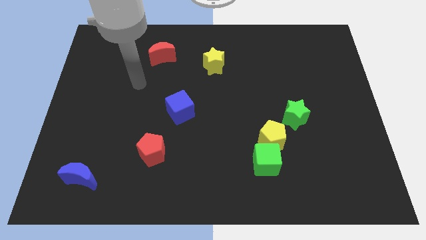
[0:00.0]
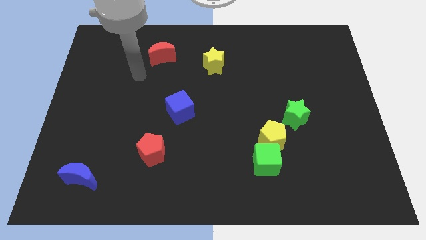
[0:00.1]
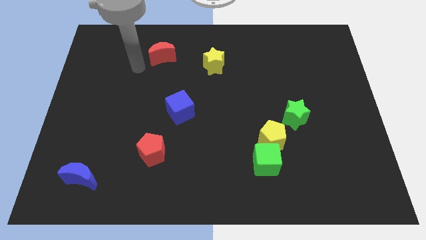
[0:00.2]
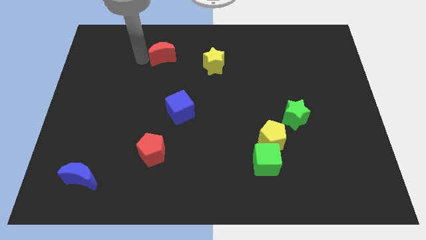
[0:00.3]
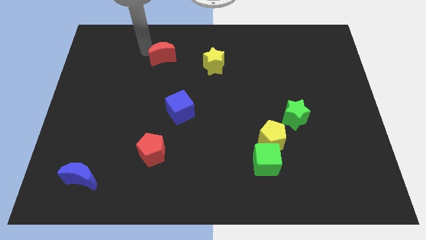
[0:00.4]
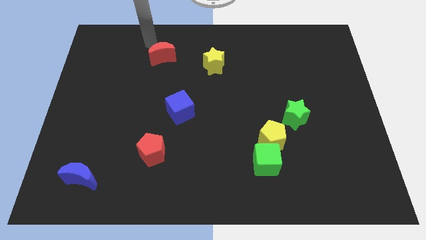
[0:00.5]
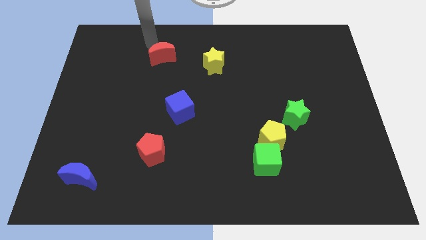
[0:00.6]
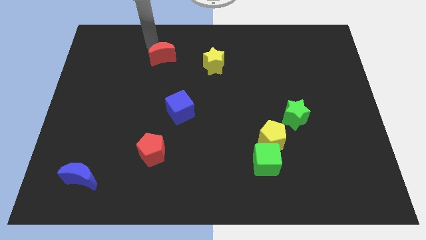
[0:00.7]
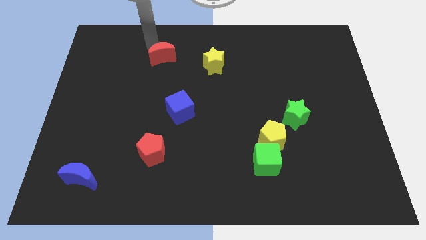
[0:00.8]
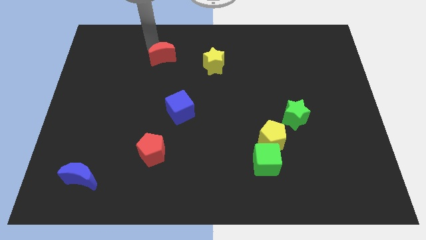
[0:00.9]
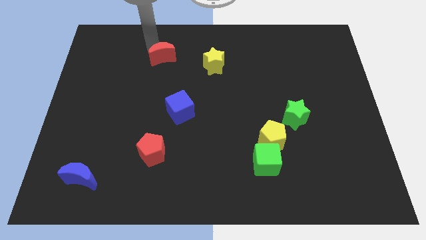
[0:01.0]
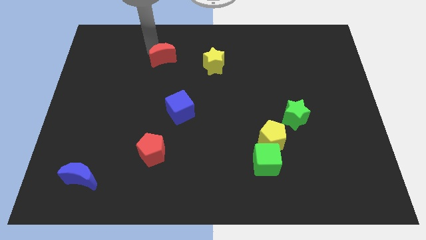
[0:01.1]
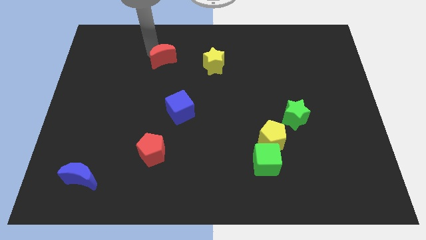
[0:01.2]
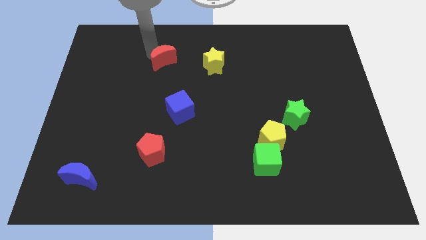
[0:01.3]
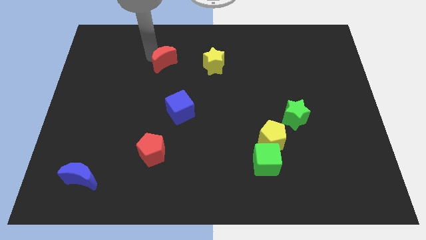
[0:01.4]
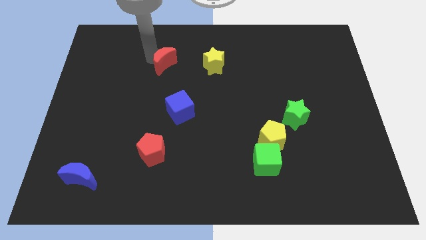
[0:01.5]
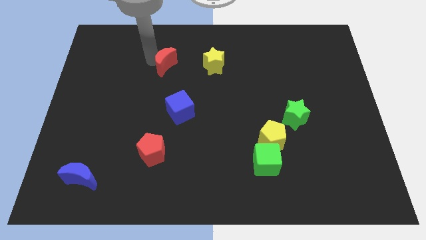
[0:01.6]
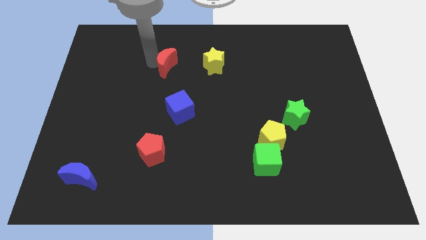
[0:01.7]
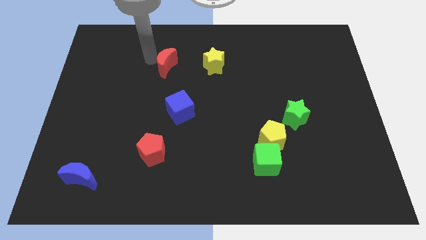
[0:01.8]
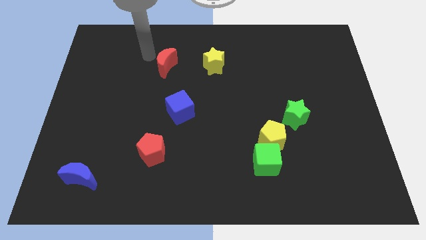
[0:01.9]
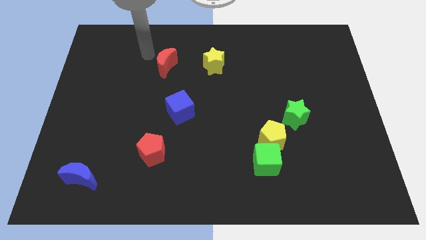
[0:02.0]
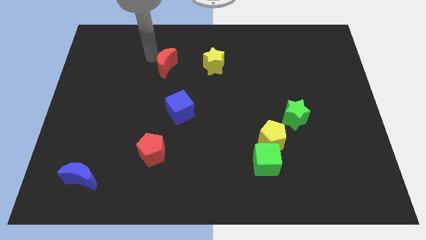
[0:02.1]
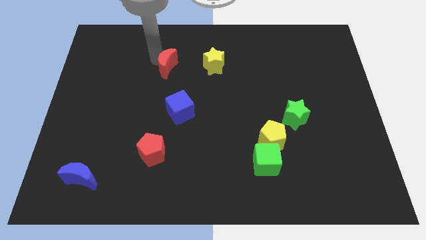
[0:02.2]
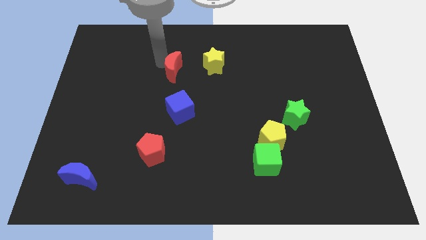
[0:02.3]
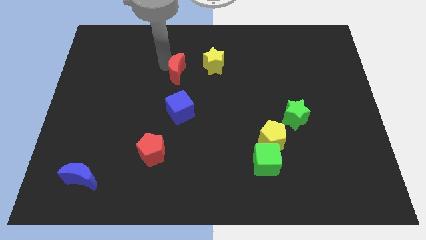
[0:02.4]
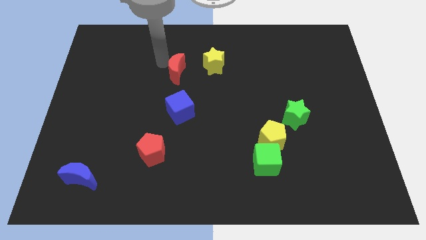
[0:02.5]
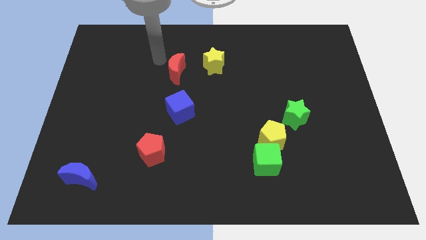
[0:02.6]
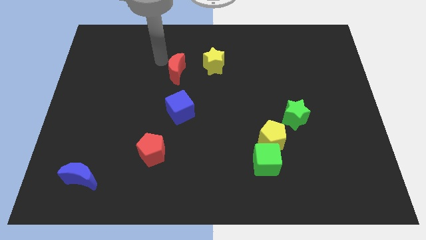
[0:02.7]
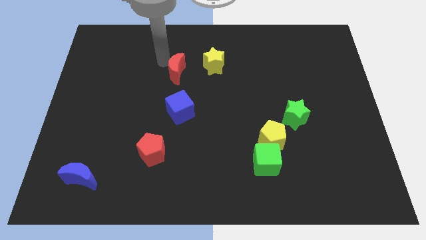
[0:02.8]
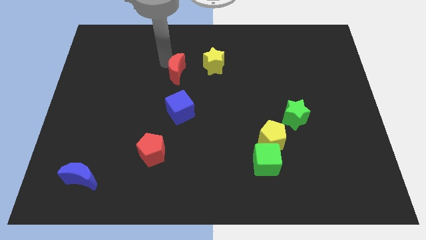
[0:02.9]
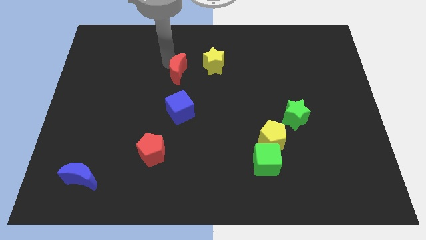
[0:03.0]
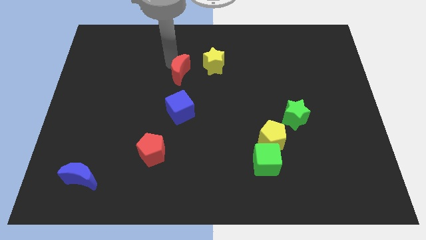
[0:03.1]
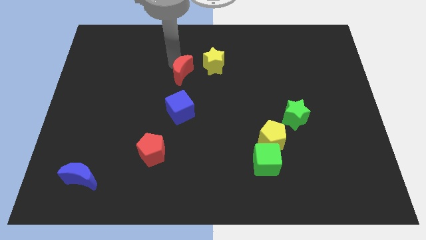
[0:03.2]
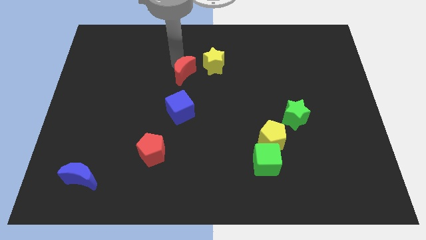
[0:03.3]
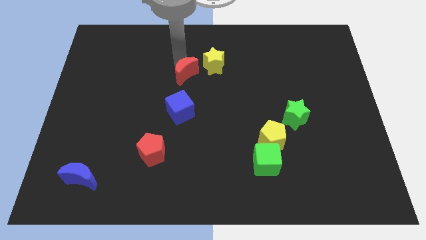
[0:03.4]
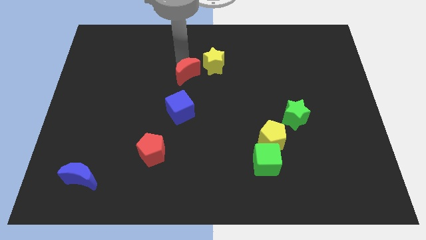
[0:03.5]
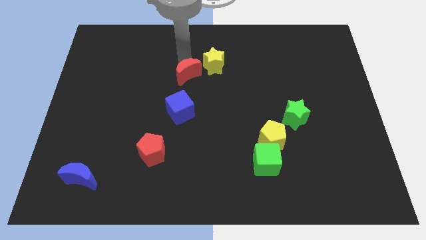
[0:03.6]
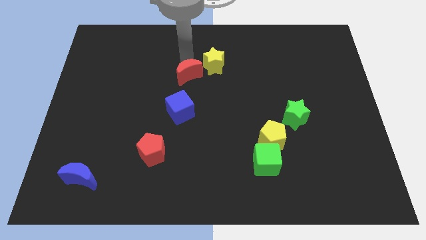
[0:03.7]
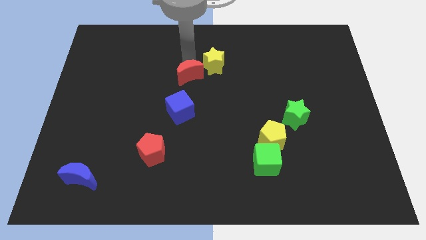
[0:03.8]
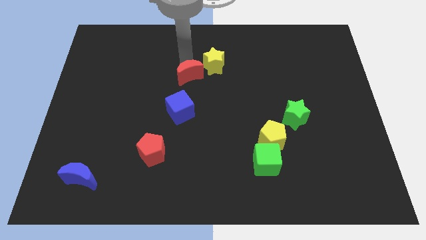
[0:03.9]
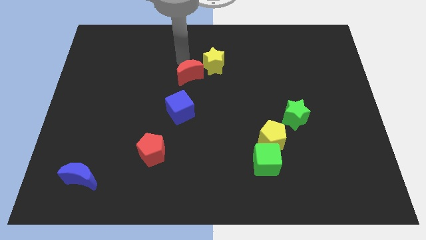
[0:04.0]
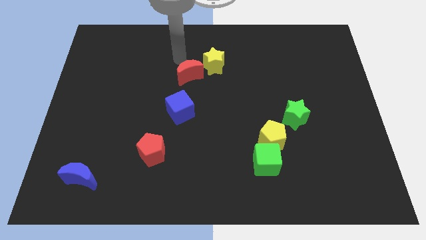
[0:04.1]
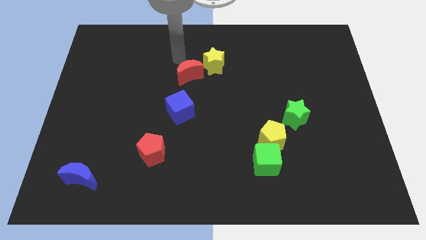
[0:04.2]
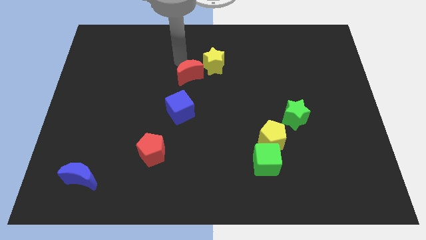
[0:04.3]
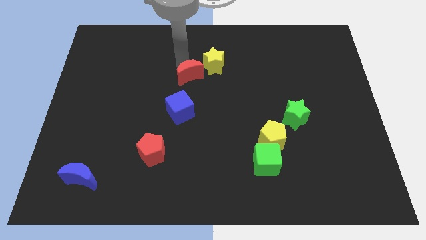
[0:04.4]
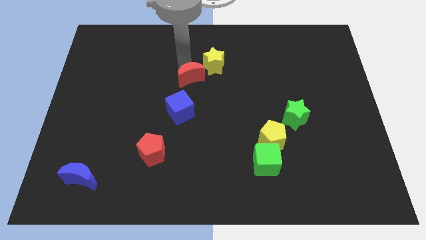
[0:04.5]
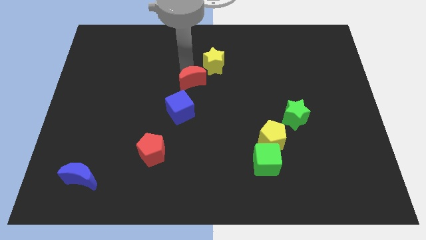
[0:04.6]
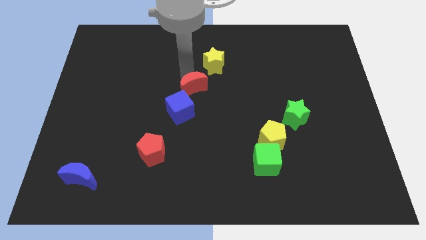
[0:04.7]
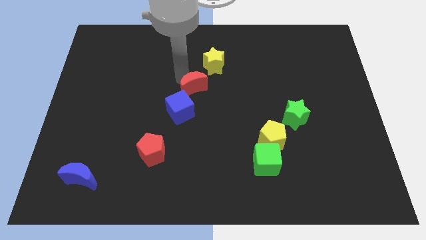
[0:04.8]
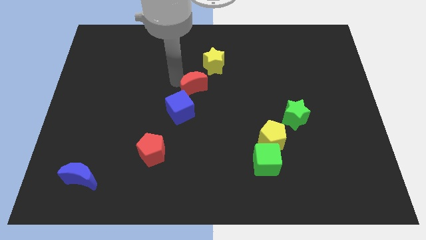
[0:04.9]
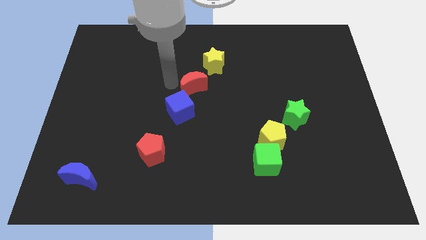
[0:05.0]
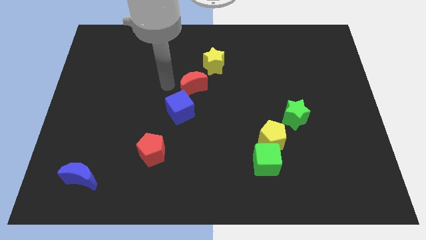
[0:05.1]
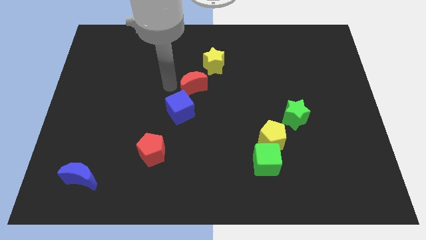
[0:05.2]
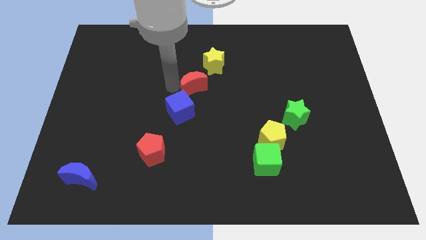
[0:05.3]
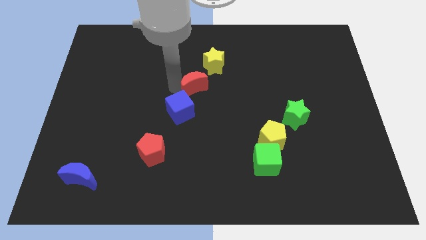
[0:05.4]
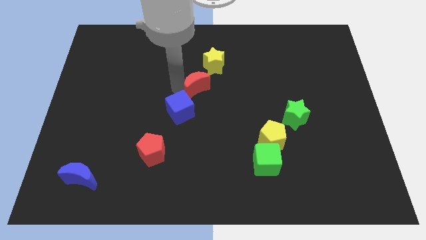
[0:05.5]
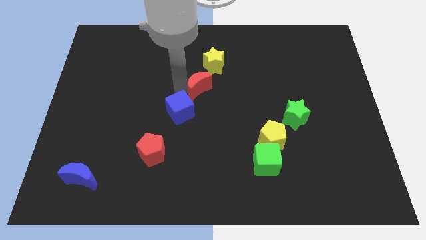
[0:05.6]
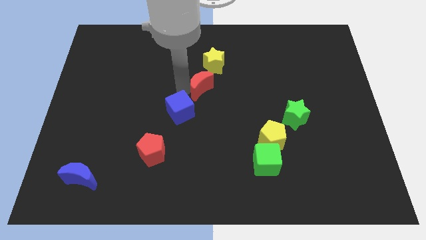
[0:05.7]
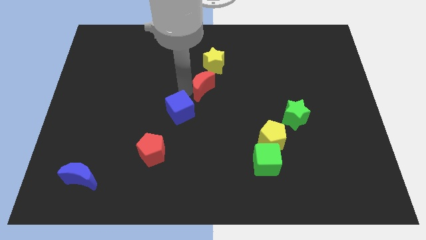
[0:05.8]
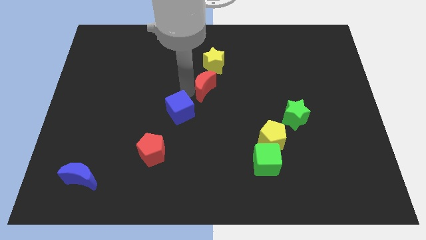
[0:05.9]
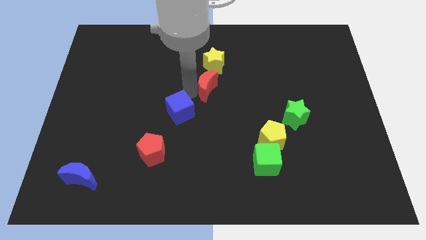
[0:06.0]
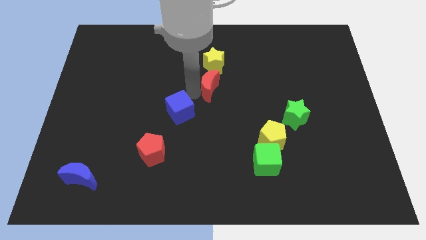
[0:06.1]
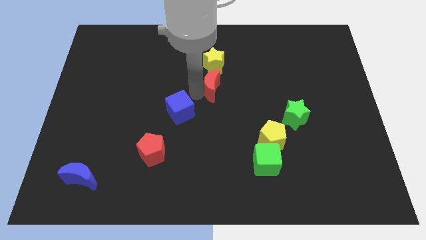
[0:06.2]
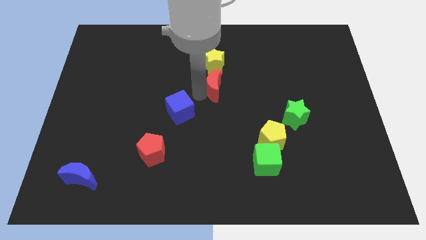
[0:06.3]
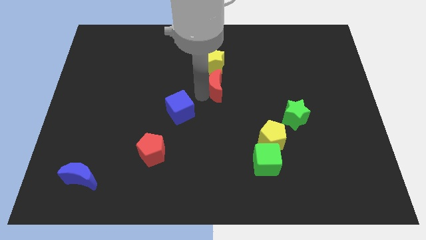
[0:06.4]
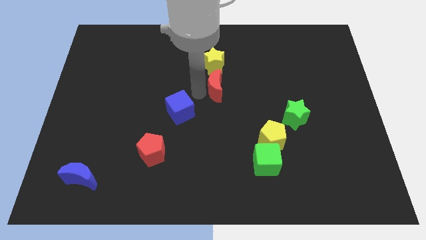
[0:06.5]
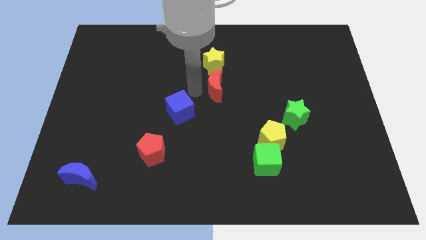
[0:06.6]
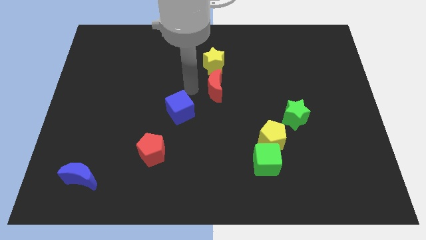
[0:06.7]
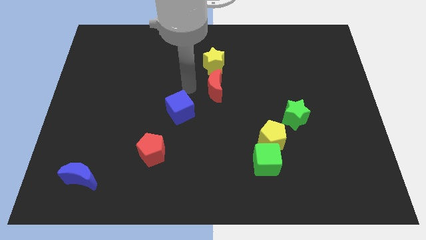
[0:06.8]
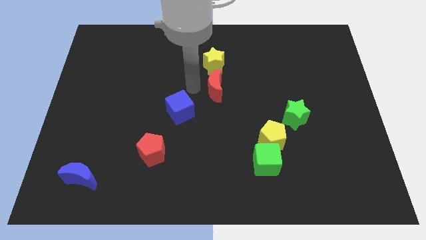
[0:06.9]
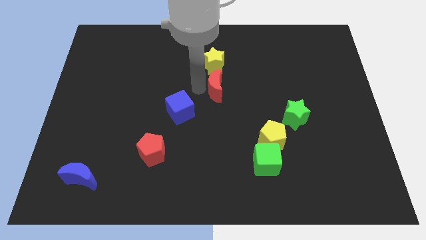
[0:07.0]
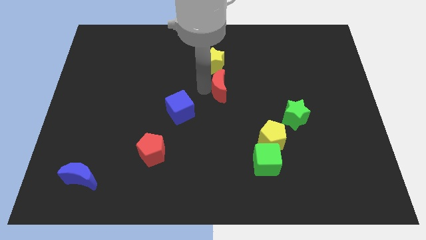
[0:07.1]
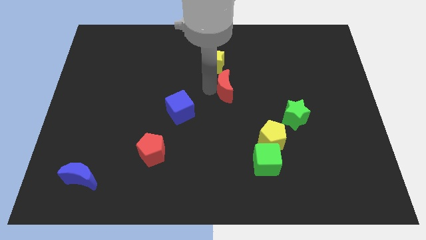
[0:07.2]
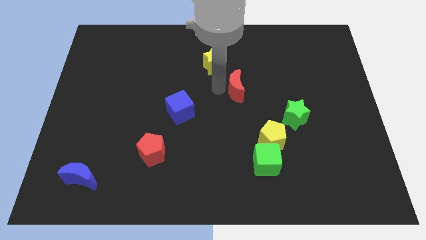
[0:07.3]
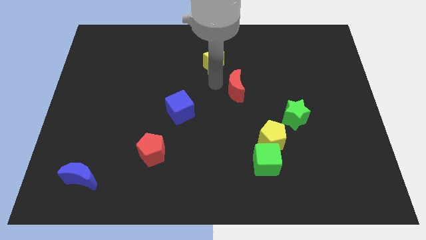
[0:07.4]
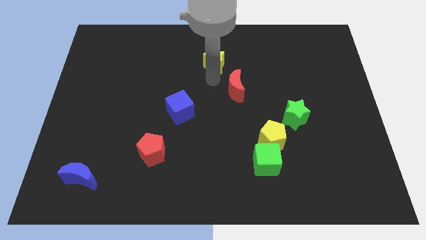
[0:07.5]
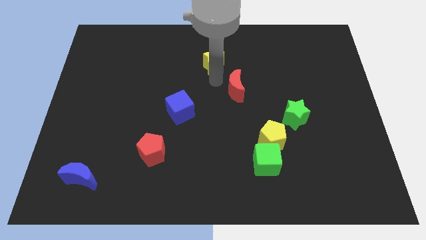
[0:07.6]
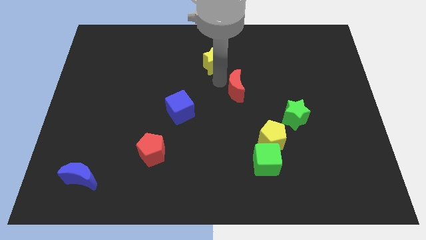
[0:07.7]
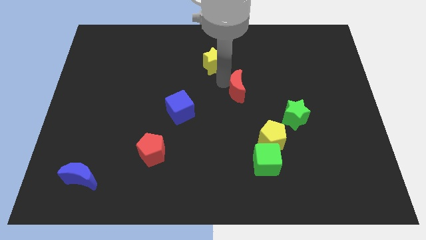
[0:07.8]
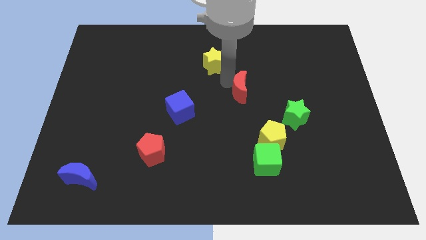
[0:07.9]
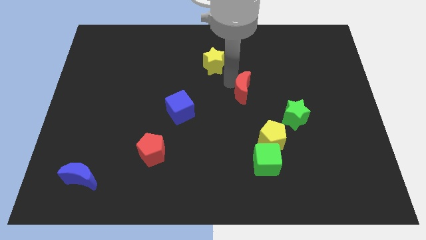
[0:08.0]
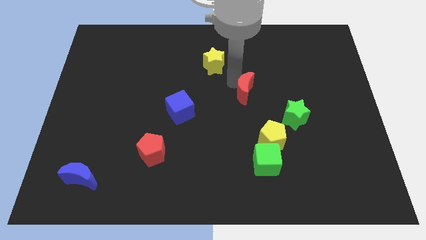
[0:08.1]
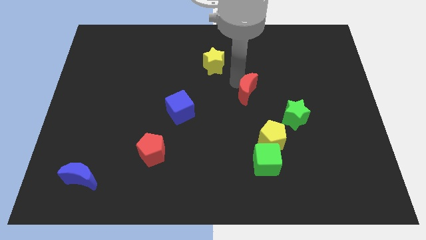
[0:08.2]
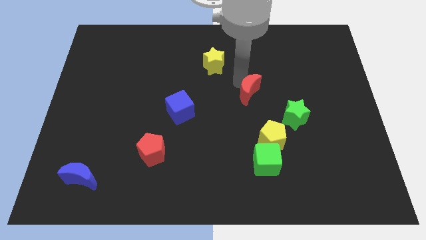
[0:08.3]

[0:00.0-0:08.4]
slide the red moon to the top side of the yellow pentagon
